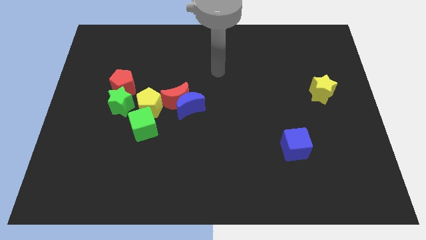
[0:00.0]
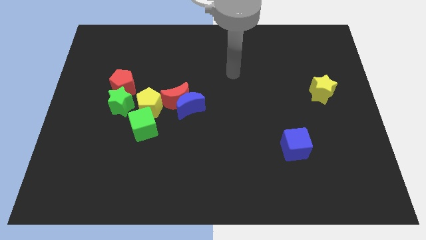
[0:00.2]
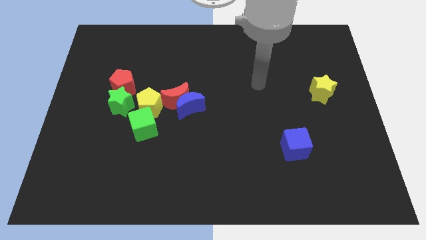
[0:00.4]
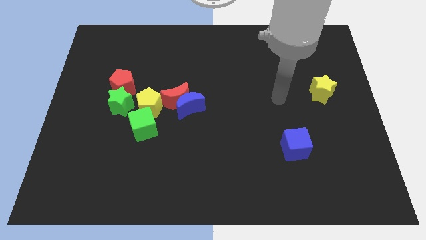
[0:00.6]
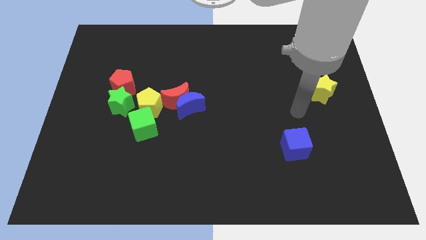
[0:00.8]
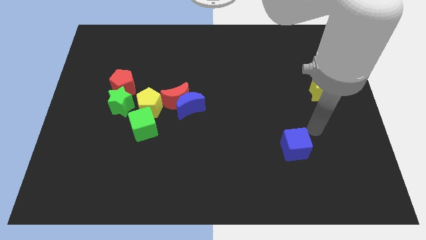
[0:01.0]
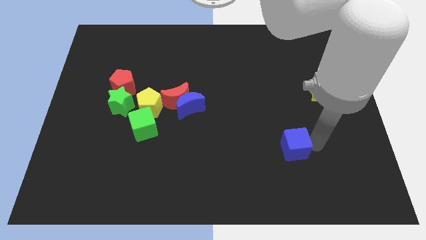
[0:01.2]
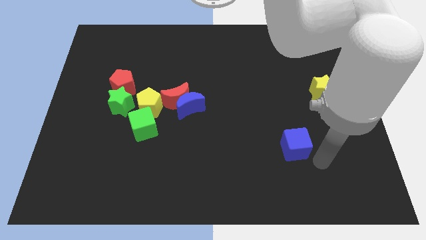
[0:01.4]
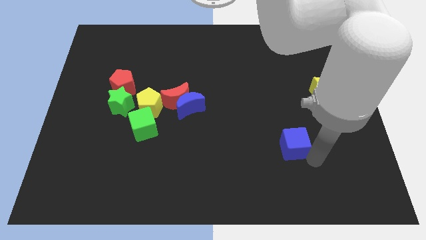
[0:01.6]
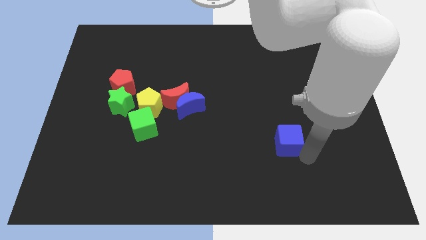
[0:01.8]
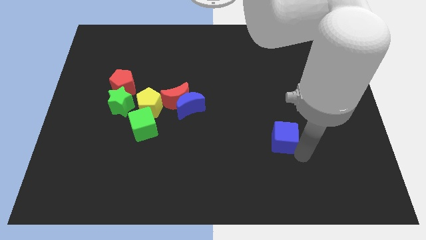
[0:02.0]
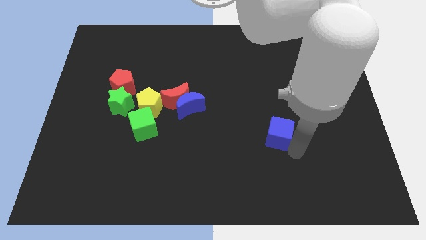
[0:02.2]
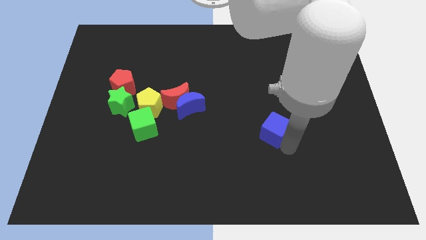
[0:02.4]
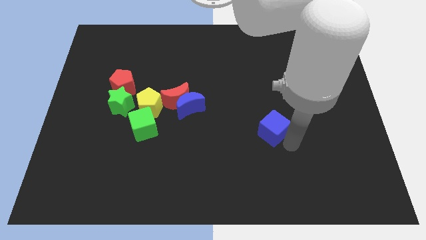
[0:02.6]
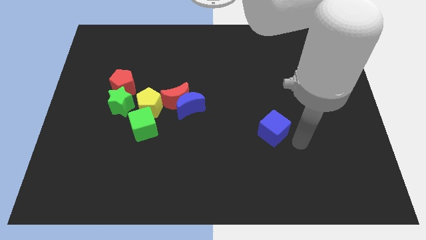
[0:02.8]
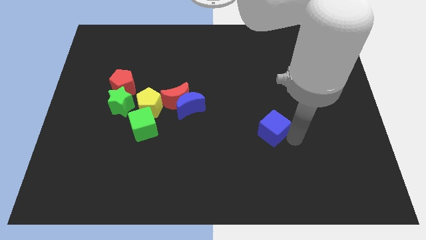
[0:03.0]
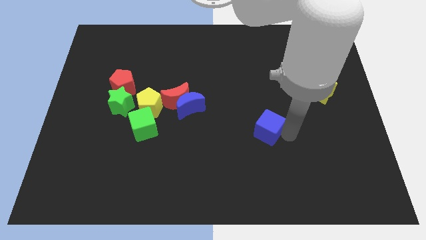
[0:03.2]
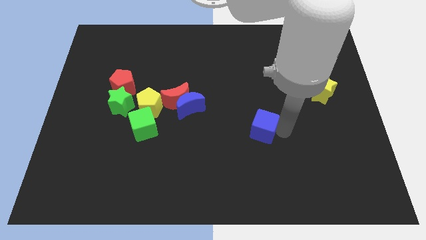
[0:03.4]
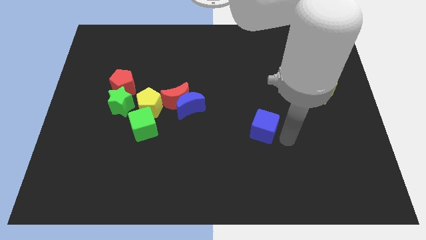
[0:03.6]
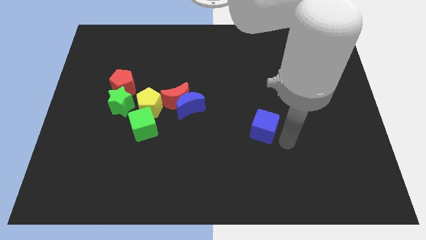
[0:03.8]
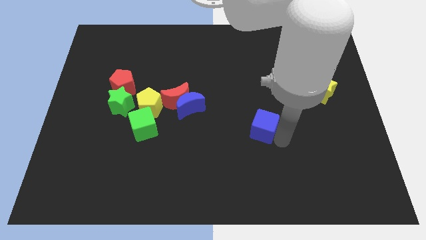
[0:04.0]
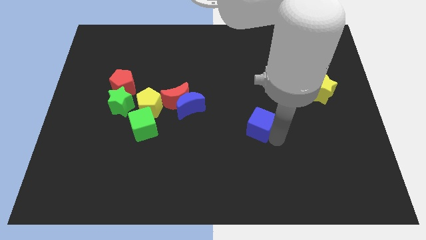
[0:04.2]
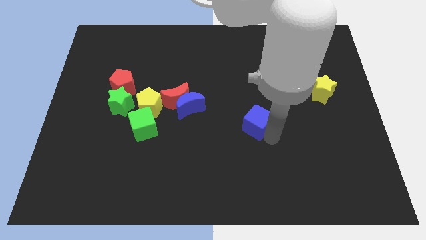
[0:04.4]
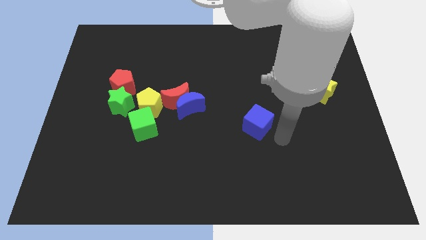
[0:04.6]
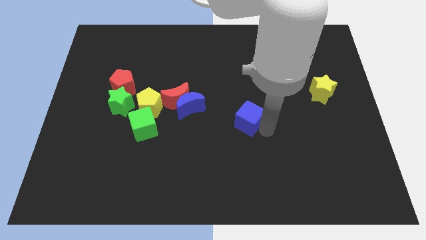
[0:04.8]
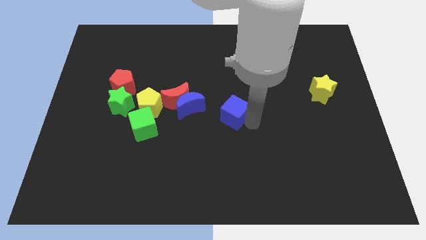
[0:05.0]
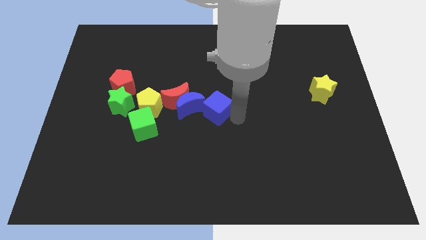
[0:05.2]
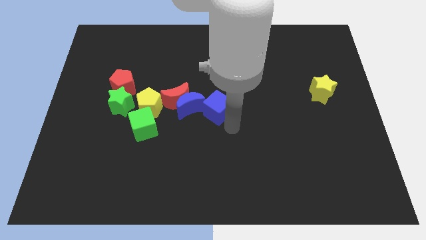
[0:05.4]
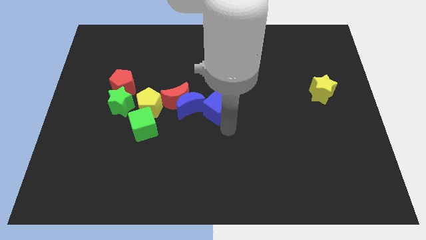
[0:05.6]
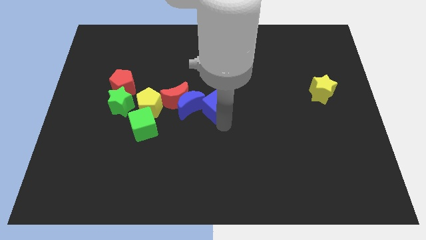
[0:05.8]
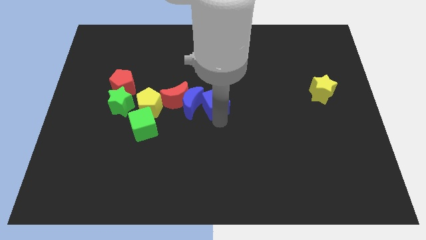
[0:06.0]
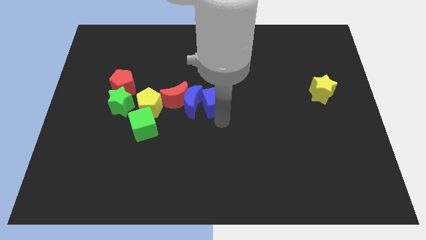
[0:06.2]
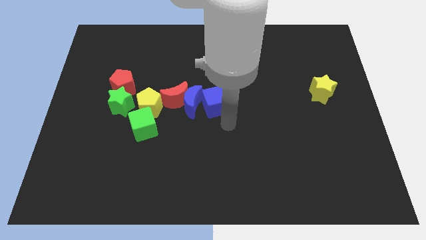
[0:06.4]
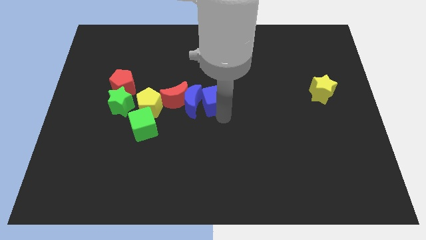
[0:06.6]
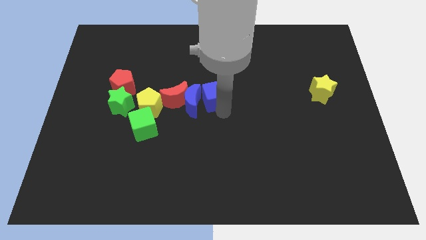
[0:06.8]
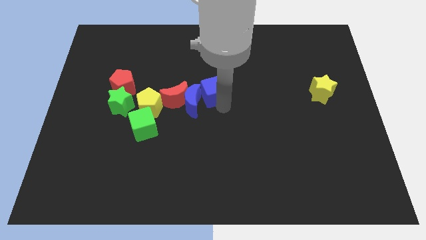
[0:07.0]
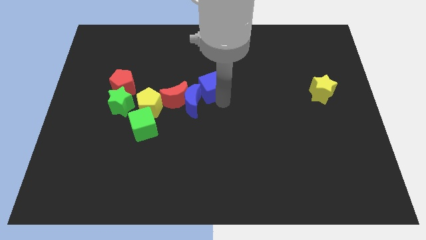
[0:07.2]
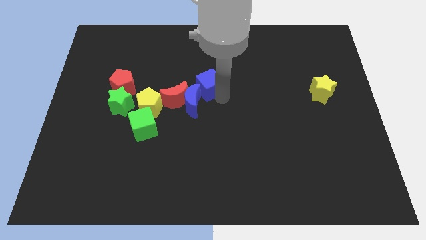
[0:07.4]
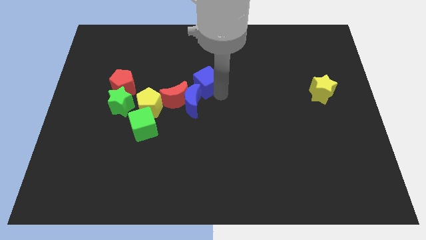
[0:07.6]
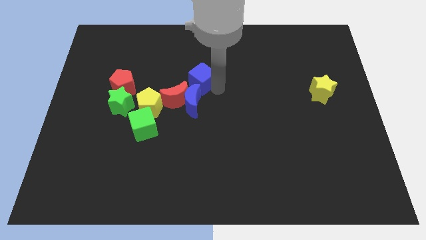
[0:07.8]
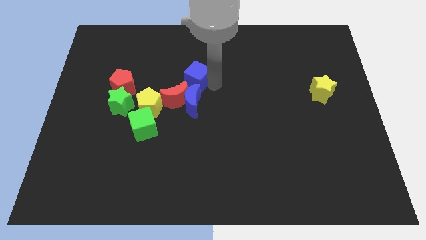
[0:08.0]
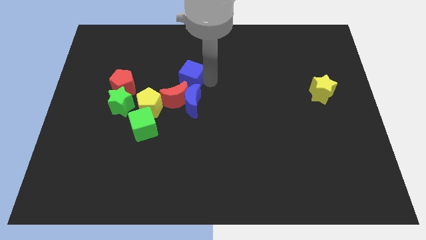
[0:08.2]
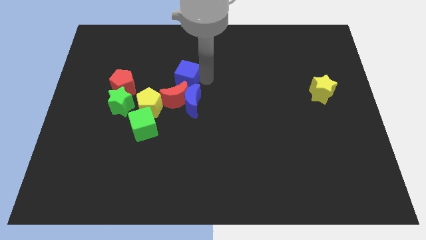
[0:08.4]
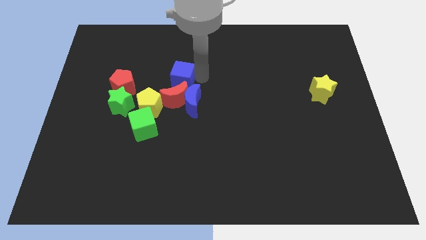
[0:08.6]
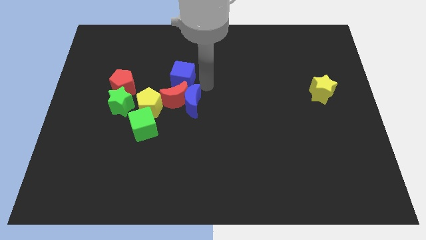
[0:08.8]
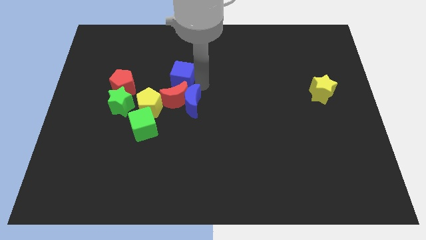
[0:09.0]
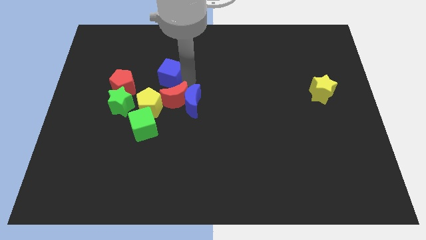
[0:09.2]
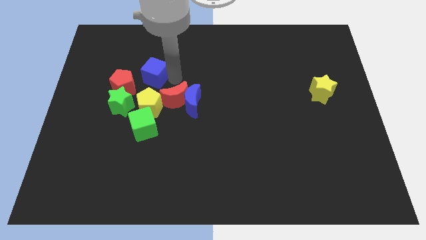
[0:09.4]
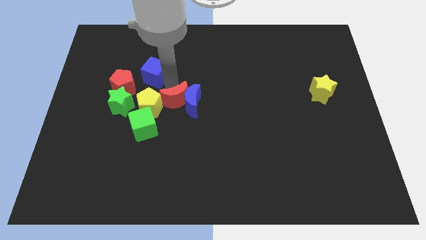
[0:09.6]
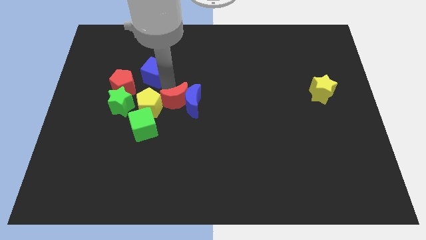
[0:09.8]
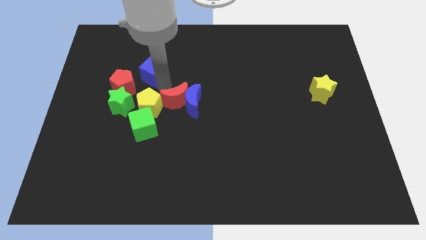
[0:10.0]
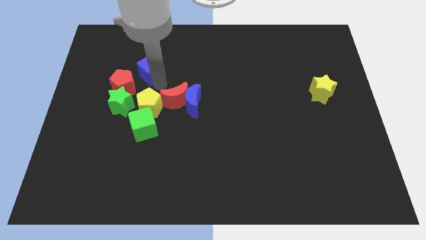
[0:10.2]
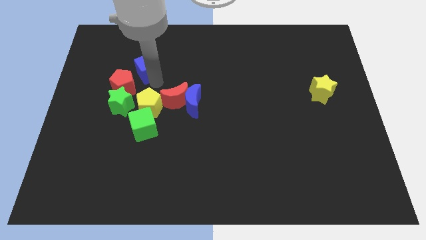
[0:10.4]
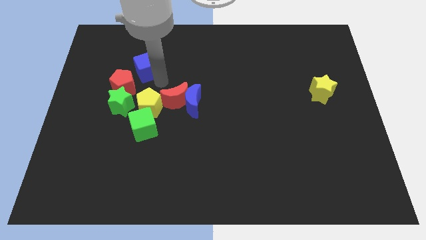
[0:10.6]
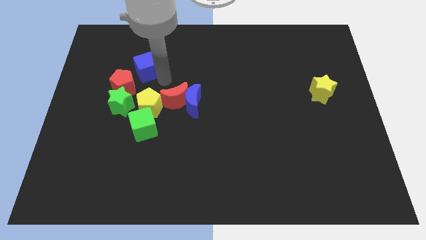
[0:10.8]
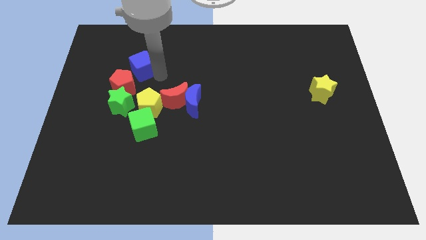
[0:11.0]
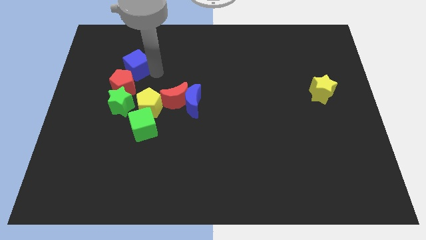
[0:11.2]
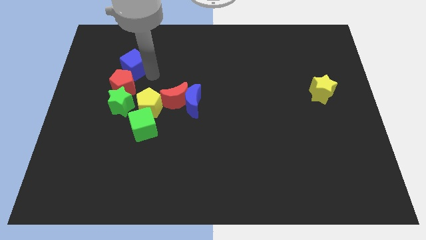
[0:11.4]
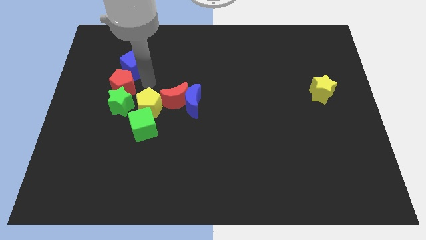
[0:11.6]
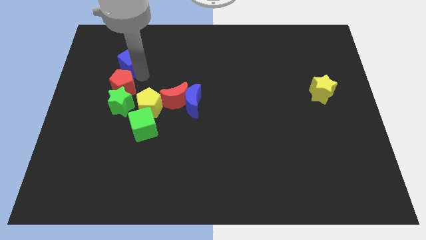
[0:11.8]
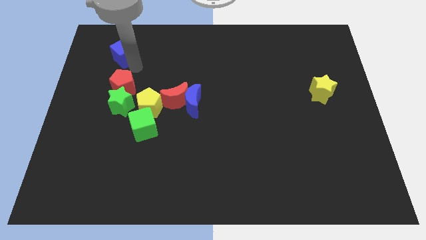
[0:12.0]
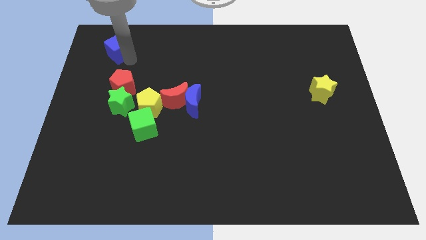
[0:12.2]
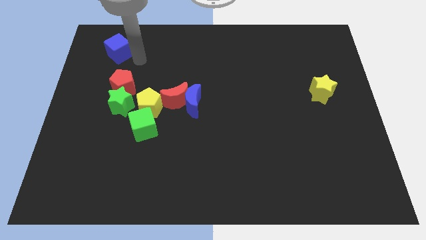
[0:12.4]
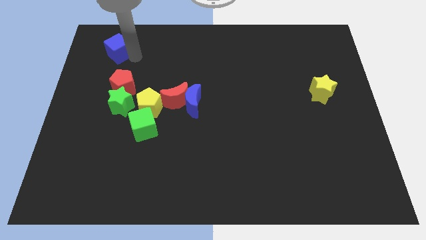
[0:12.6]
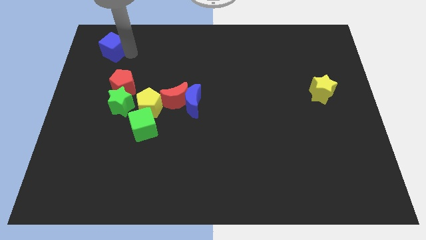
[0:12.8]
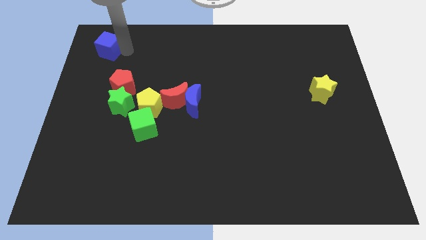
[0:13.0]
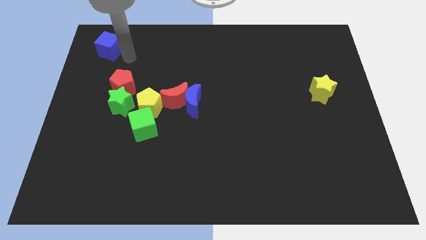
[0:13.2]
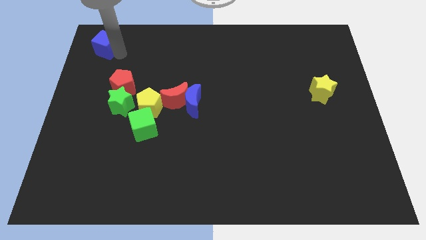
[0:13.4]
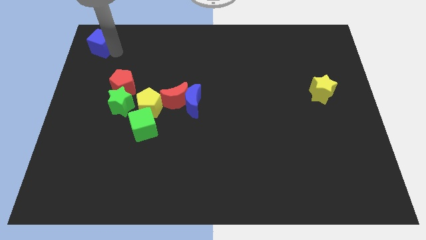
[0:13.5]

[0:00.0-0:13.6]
slide the blue cube to the top left corner
